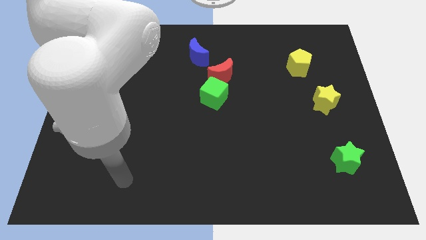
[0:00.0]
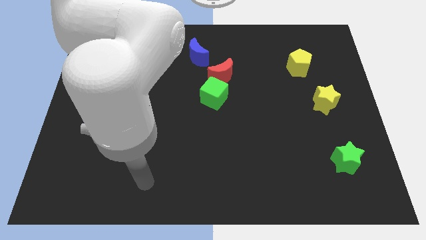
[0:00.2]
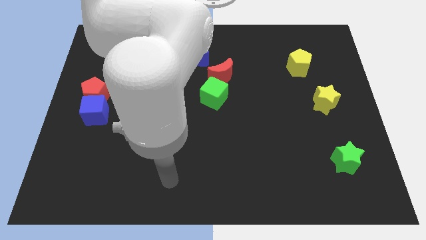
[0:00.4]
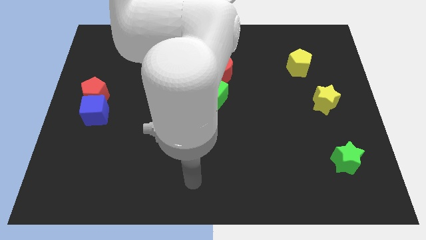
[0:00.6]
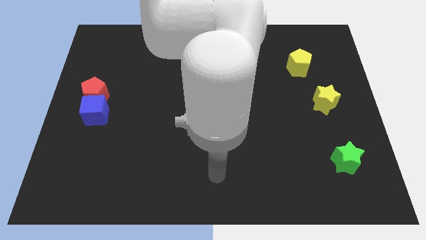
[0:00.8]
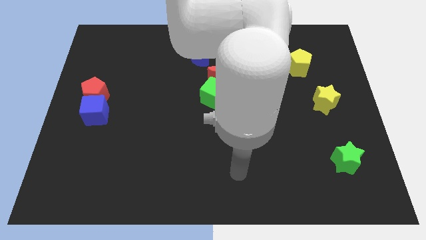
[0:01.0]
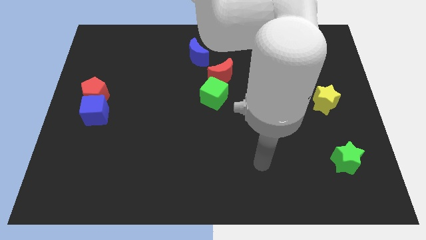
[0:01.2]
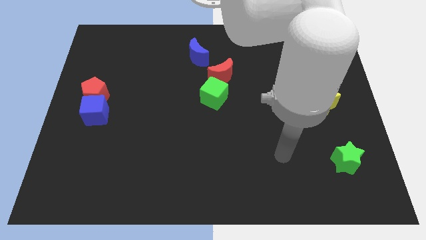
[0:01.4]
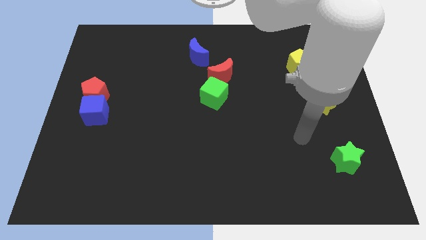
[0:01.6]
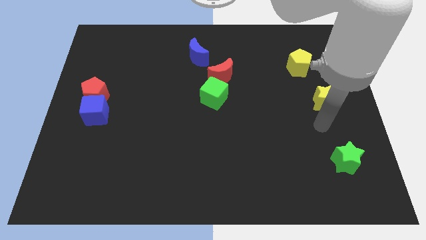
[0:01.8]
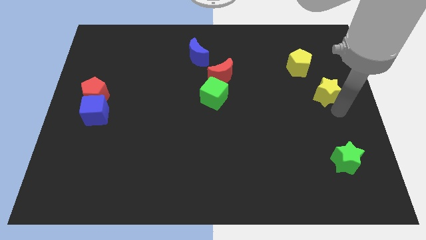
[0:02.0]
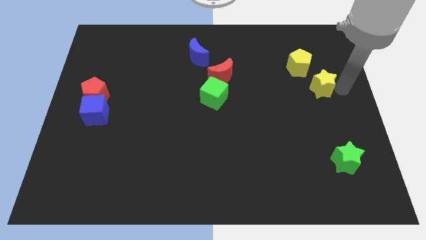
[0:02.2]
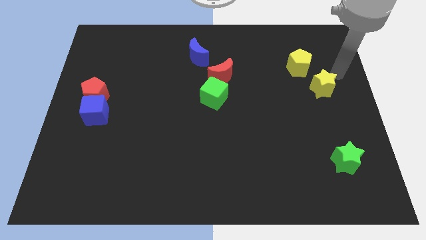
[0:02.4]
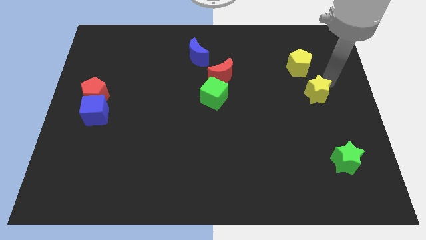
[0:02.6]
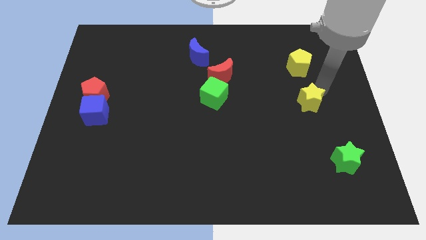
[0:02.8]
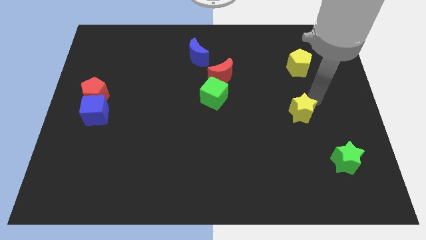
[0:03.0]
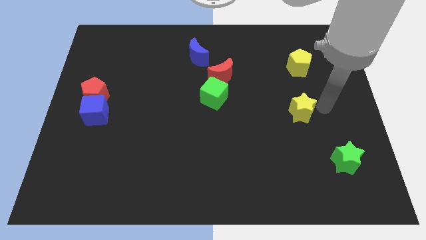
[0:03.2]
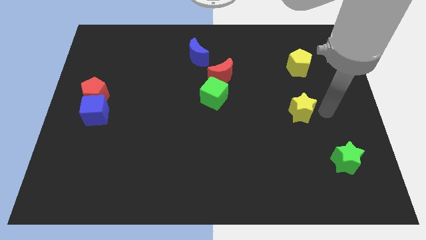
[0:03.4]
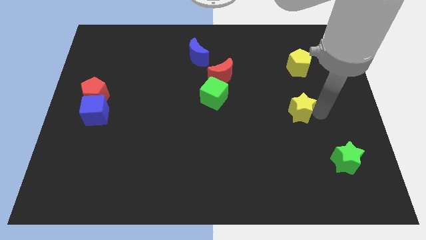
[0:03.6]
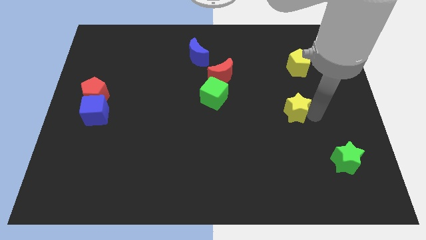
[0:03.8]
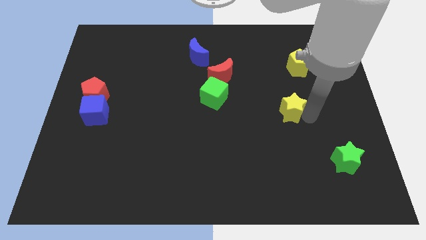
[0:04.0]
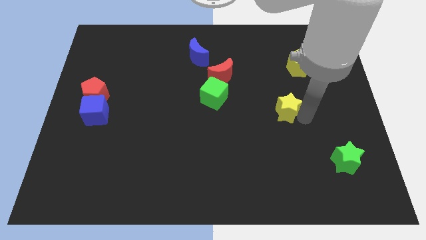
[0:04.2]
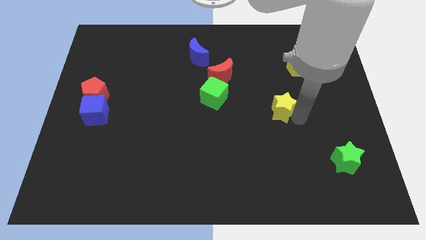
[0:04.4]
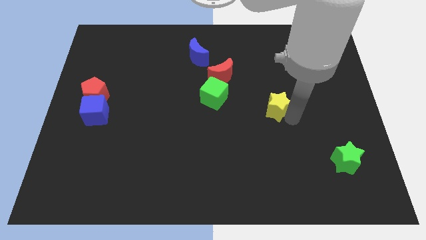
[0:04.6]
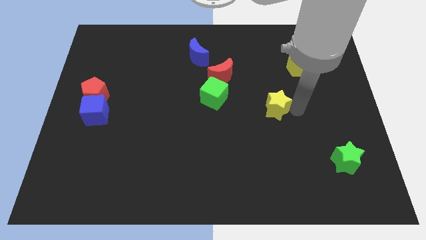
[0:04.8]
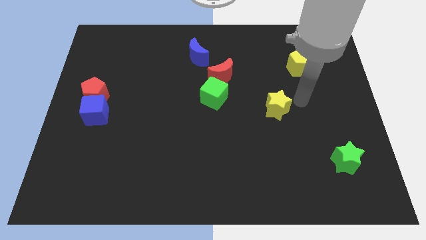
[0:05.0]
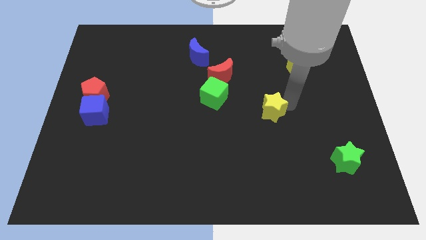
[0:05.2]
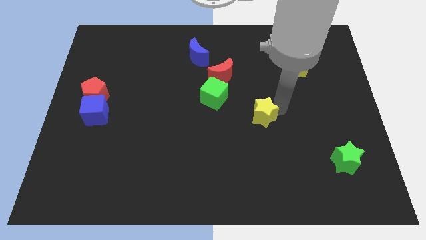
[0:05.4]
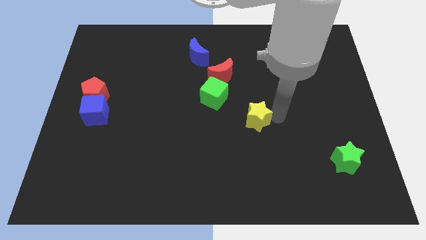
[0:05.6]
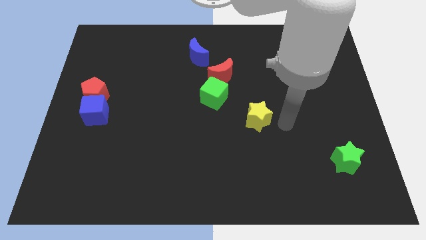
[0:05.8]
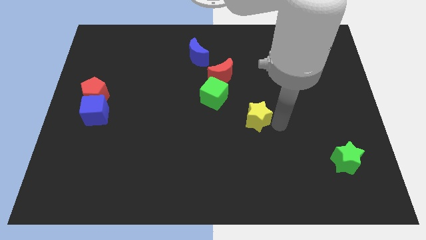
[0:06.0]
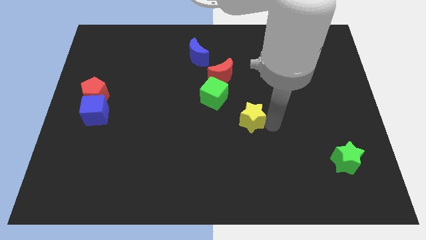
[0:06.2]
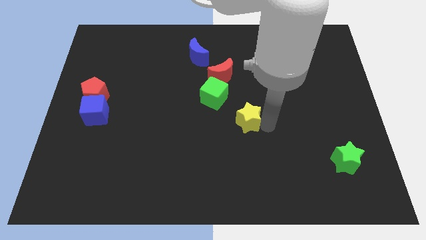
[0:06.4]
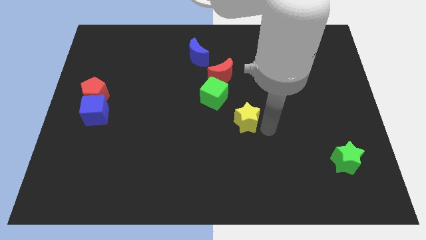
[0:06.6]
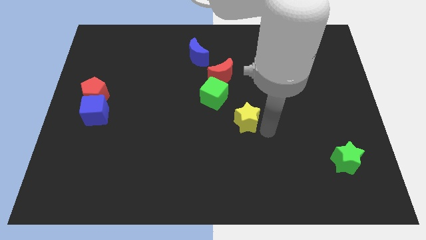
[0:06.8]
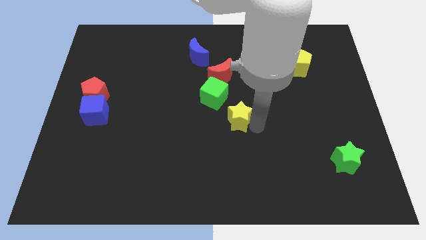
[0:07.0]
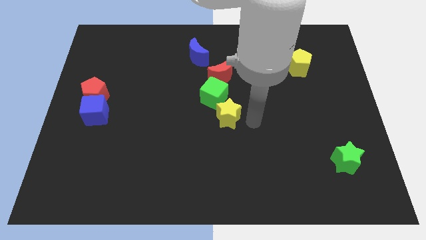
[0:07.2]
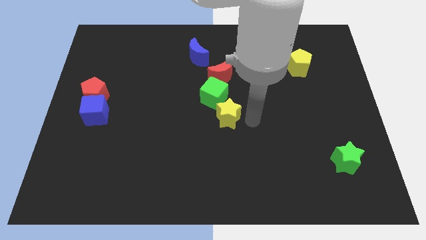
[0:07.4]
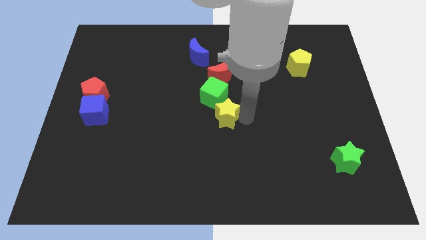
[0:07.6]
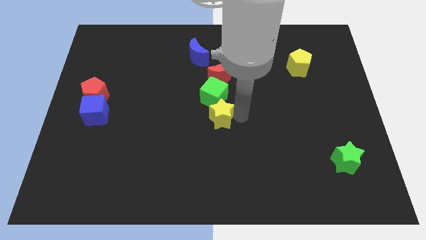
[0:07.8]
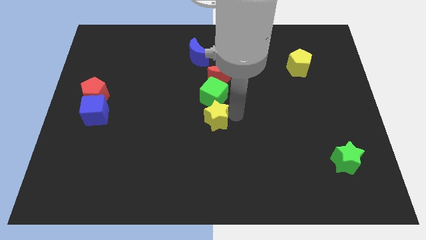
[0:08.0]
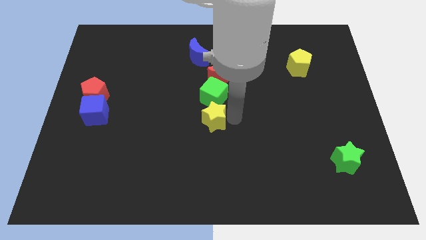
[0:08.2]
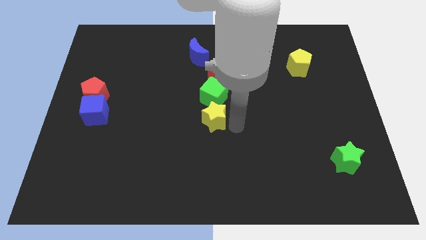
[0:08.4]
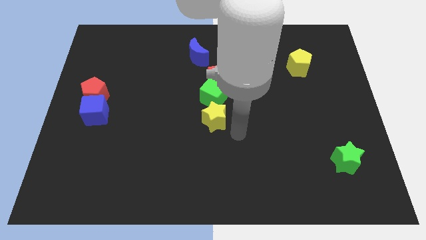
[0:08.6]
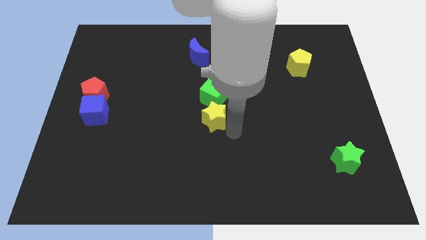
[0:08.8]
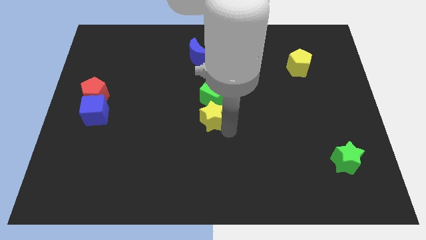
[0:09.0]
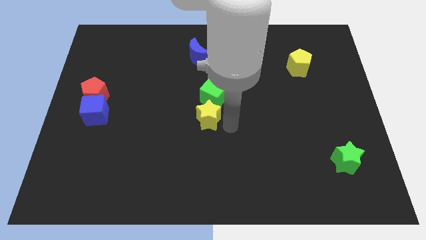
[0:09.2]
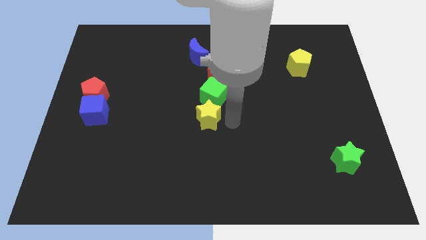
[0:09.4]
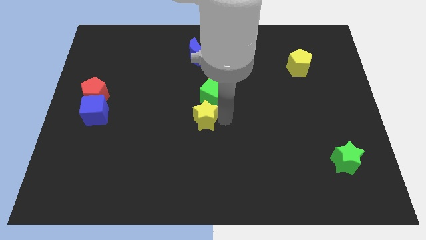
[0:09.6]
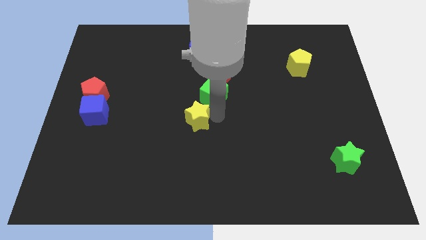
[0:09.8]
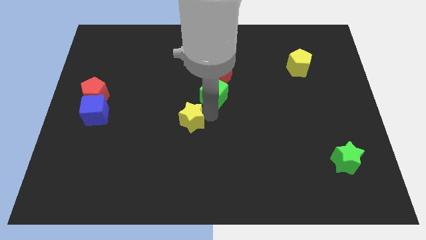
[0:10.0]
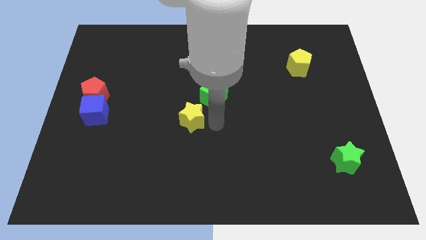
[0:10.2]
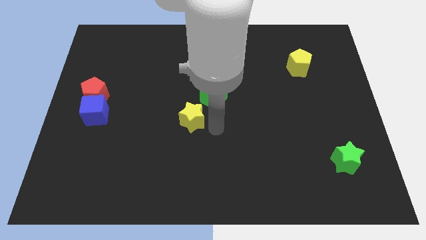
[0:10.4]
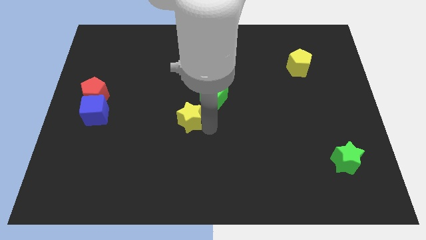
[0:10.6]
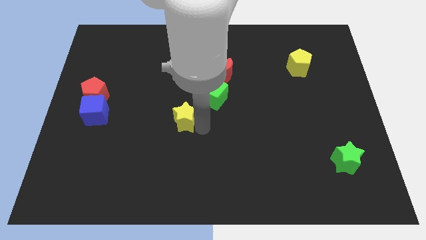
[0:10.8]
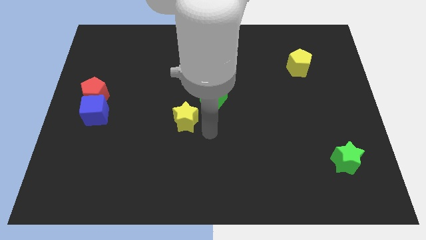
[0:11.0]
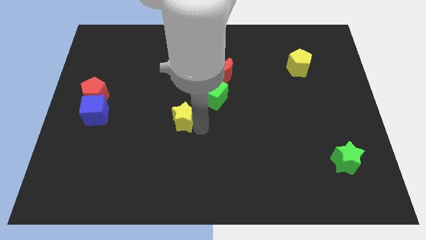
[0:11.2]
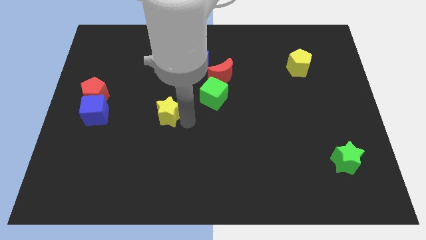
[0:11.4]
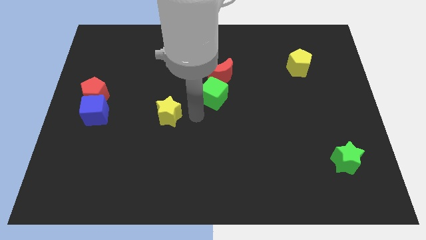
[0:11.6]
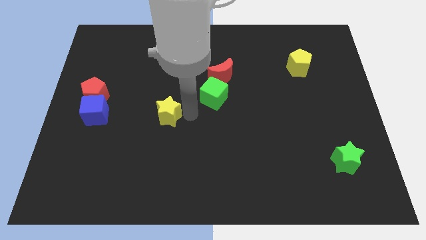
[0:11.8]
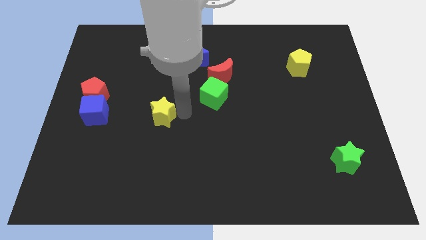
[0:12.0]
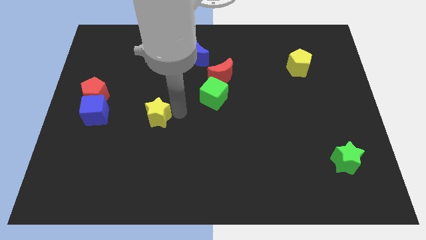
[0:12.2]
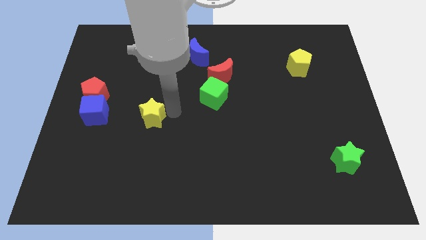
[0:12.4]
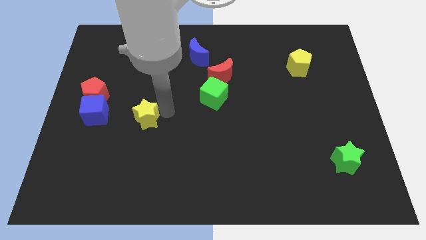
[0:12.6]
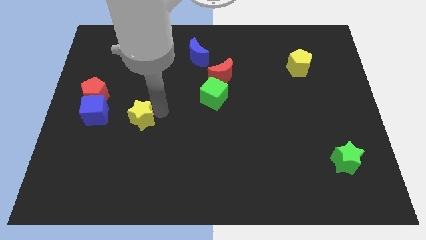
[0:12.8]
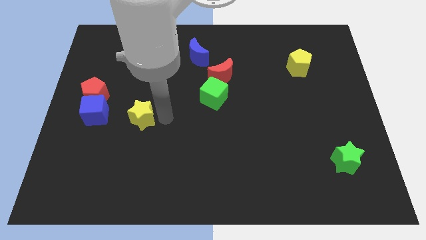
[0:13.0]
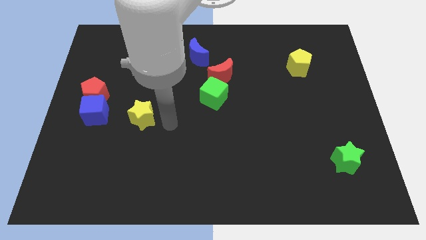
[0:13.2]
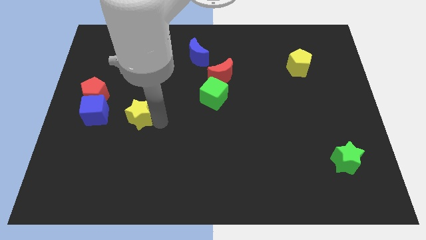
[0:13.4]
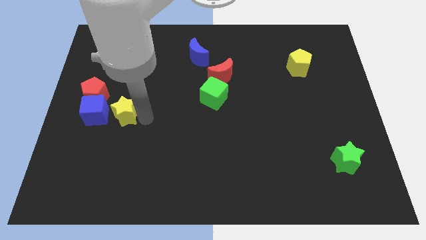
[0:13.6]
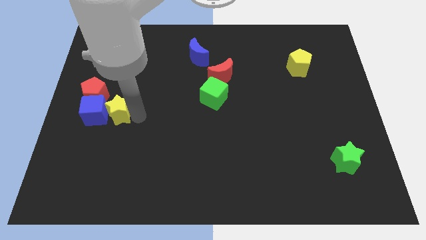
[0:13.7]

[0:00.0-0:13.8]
push the yellow star towards the blue cube
